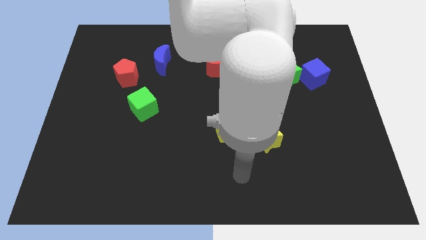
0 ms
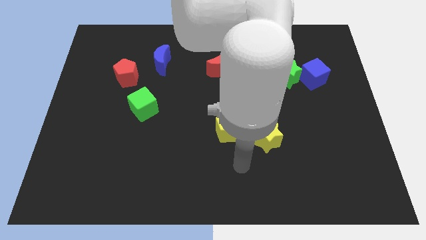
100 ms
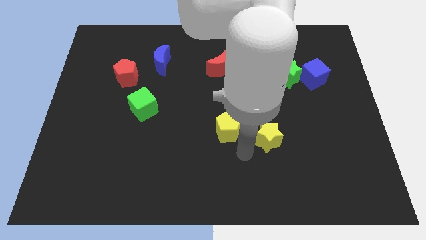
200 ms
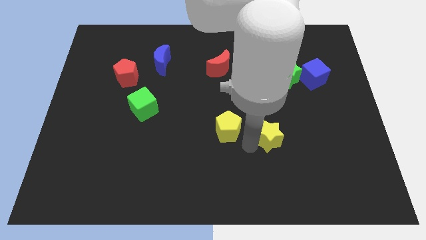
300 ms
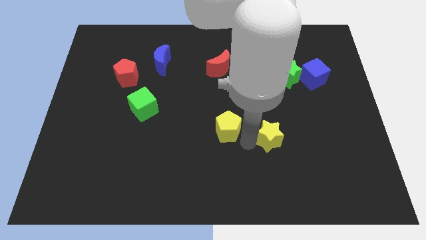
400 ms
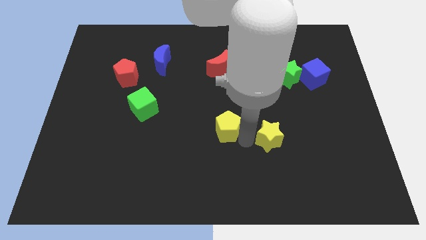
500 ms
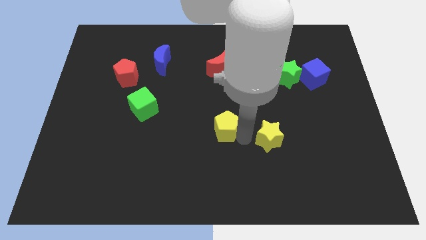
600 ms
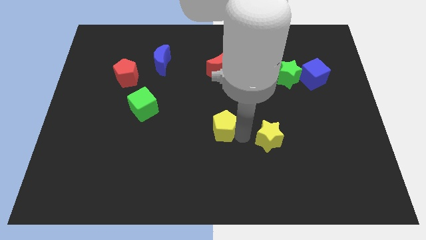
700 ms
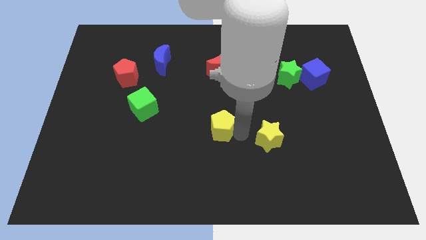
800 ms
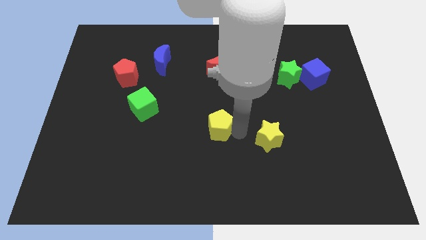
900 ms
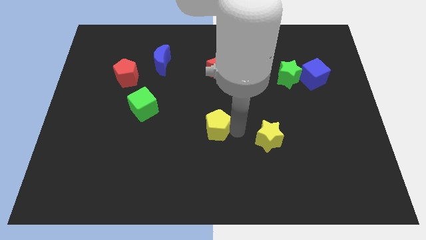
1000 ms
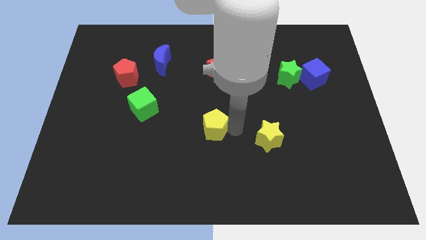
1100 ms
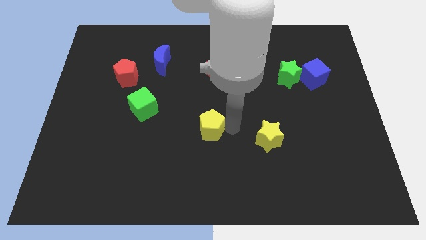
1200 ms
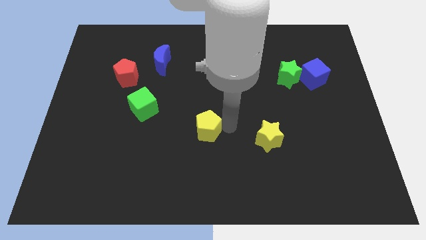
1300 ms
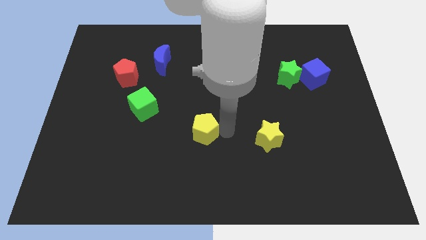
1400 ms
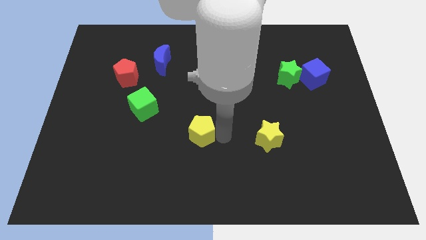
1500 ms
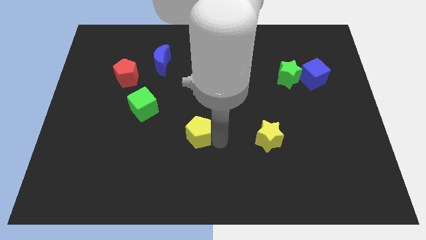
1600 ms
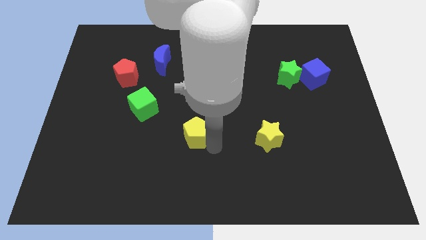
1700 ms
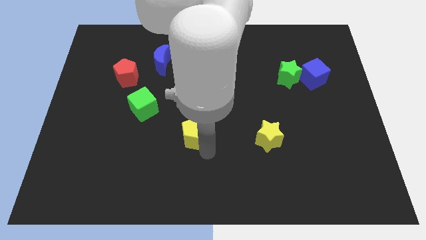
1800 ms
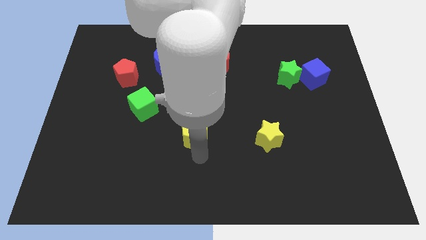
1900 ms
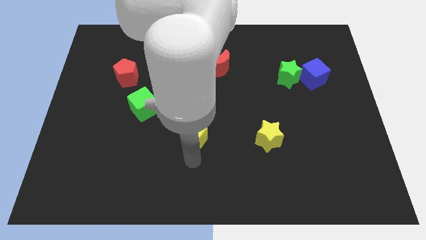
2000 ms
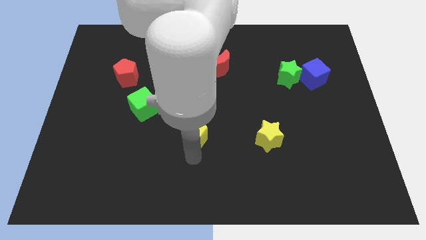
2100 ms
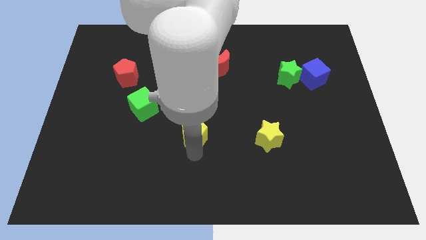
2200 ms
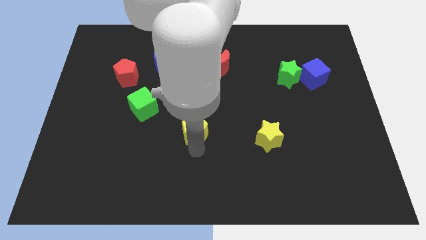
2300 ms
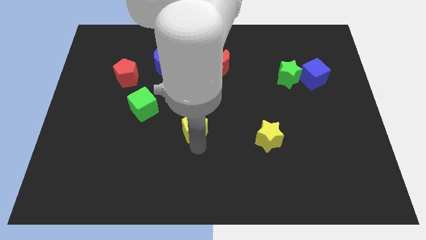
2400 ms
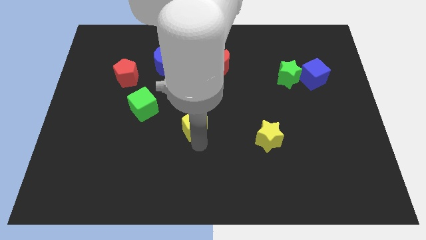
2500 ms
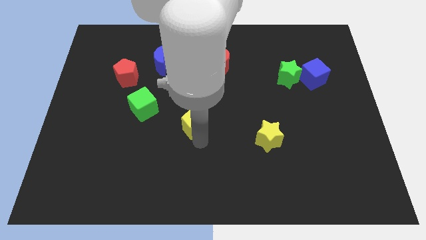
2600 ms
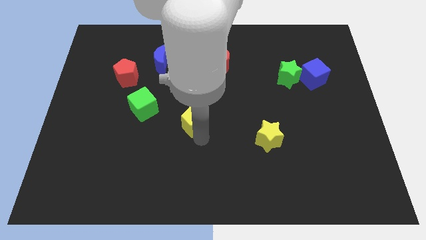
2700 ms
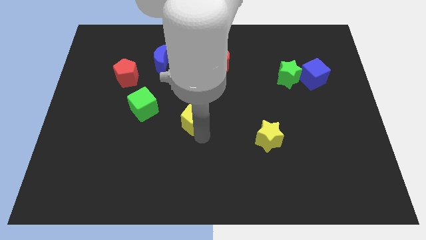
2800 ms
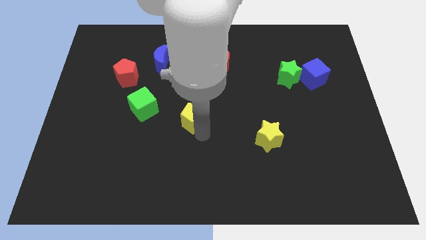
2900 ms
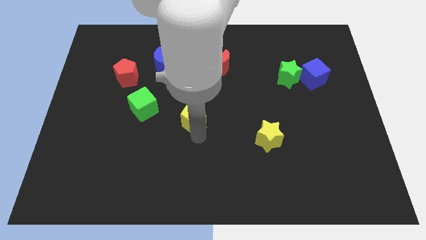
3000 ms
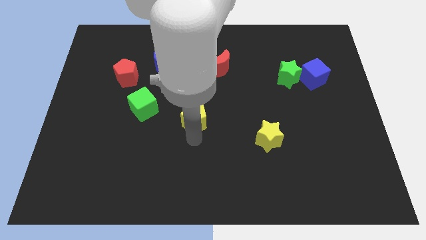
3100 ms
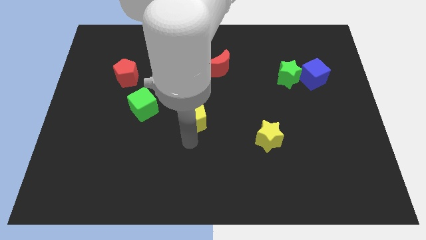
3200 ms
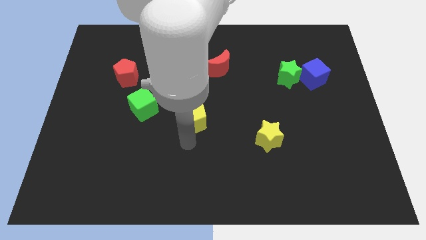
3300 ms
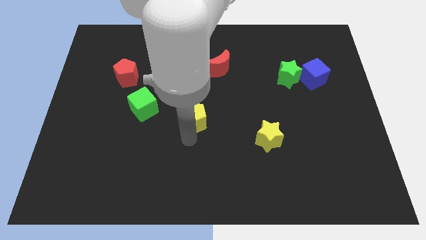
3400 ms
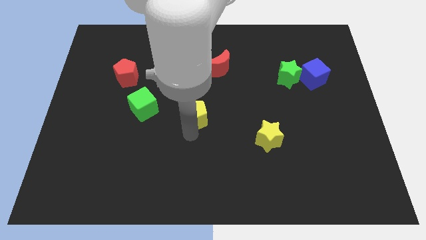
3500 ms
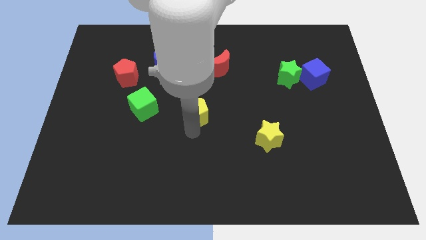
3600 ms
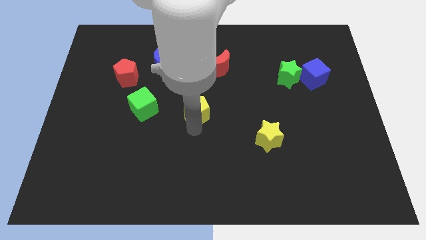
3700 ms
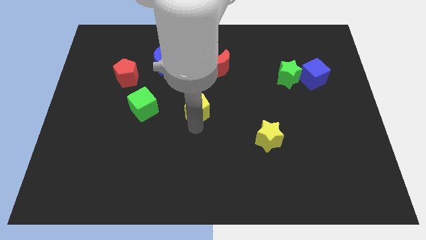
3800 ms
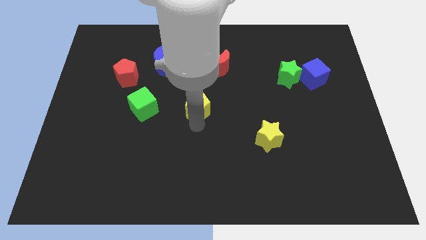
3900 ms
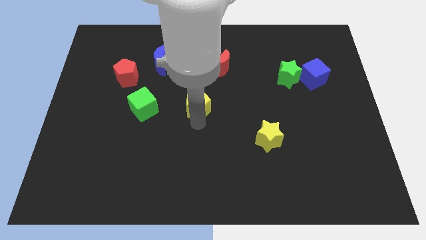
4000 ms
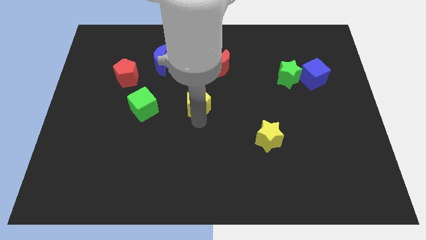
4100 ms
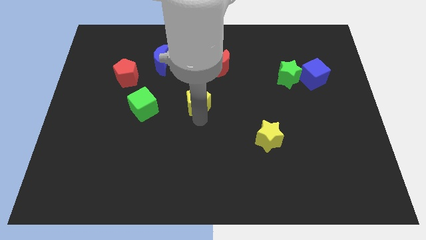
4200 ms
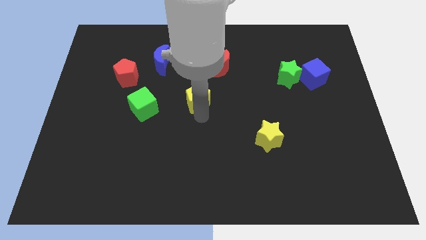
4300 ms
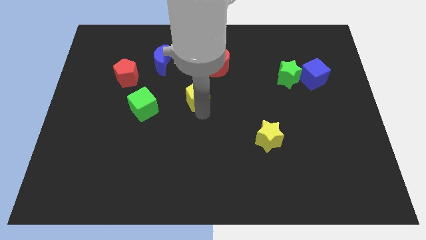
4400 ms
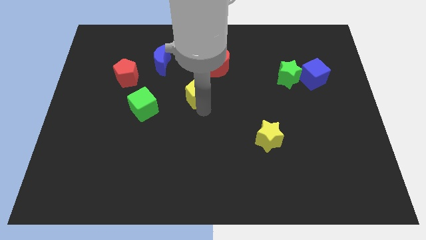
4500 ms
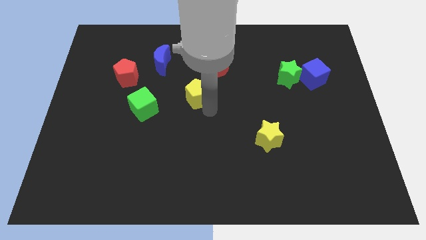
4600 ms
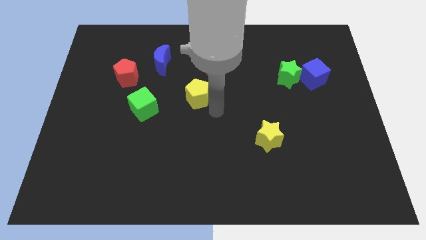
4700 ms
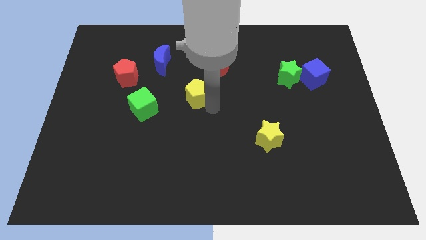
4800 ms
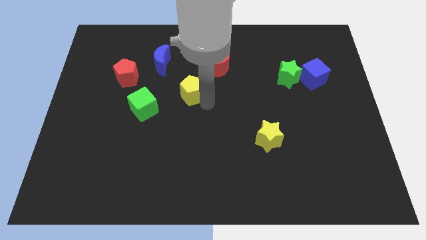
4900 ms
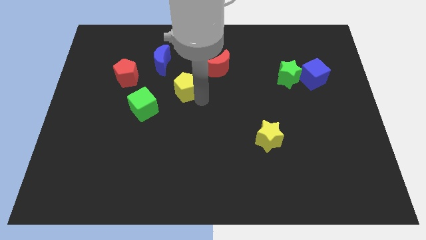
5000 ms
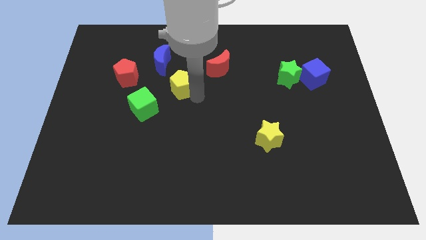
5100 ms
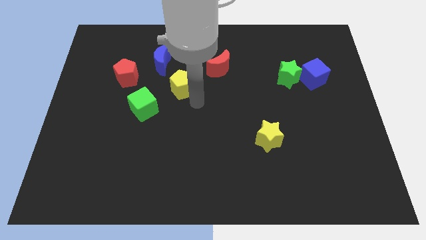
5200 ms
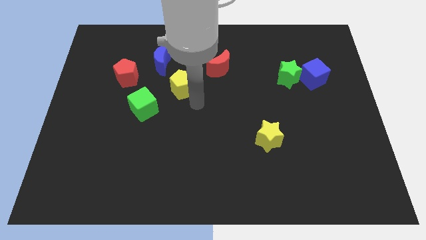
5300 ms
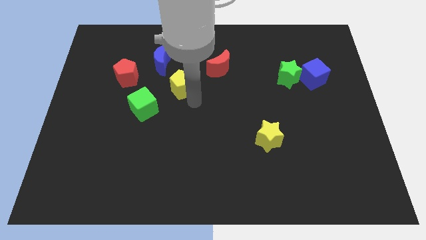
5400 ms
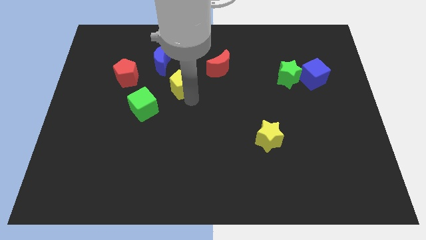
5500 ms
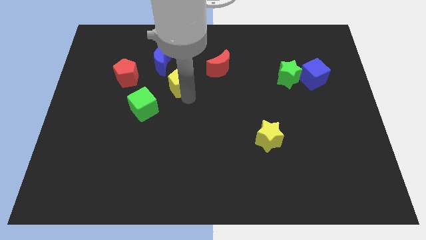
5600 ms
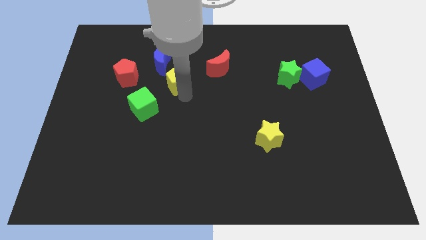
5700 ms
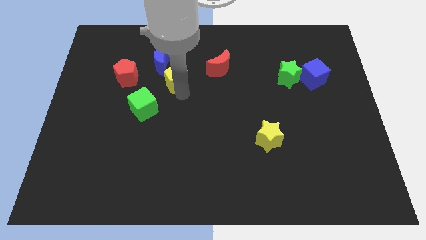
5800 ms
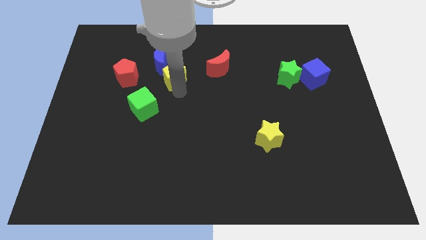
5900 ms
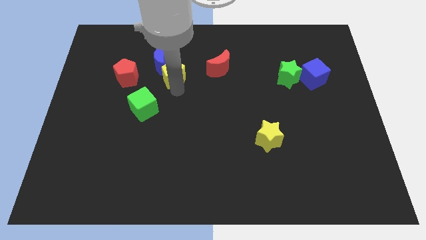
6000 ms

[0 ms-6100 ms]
move the yellow pentagon next to the blue moon

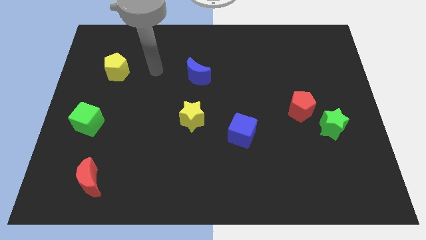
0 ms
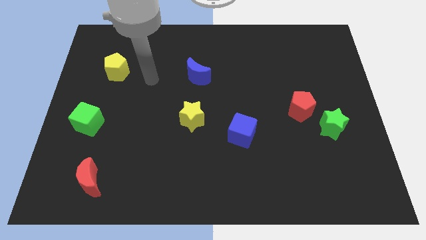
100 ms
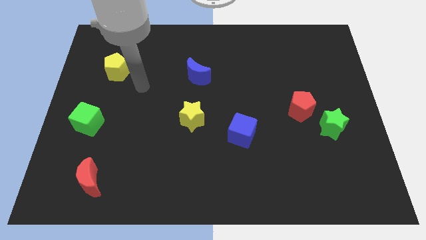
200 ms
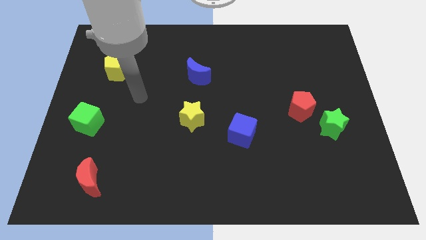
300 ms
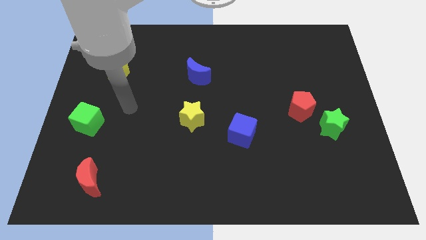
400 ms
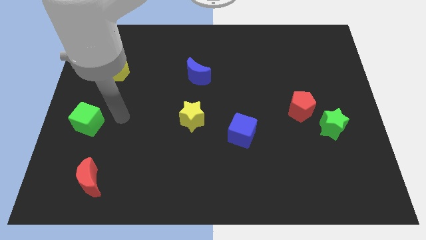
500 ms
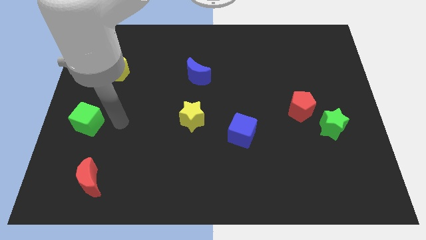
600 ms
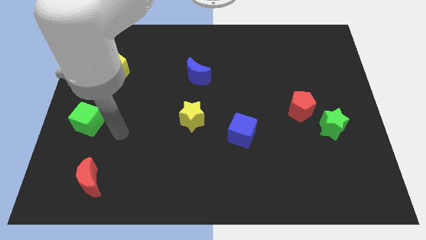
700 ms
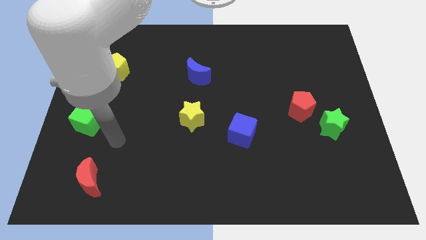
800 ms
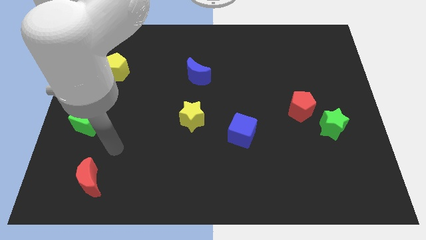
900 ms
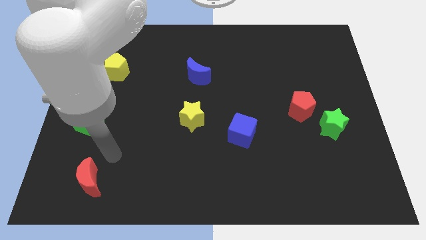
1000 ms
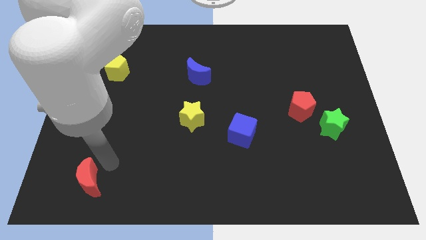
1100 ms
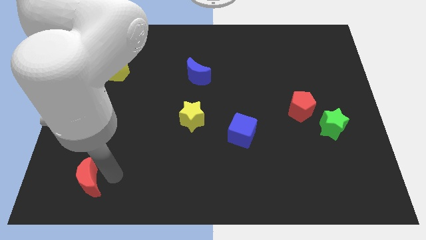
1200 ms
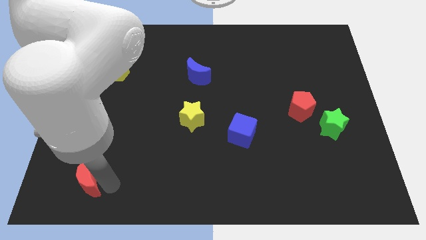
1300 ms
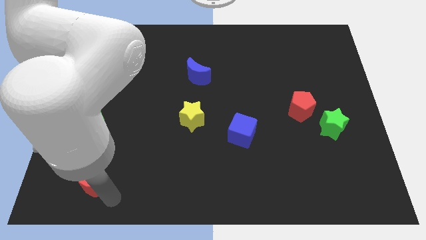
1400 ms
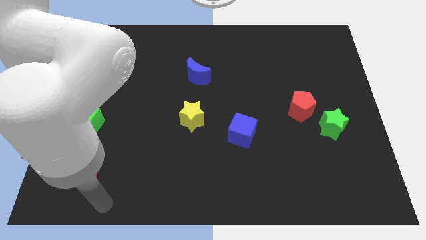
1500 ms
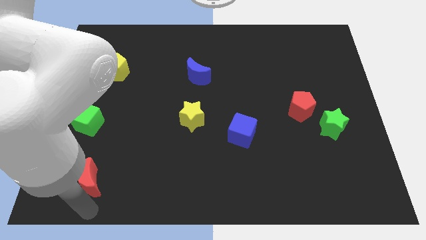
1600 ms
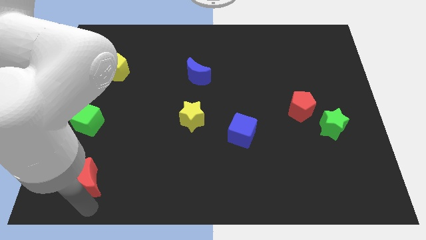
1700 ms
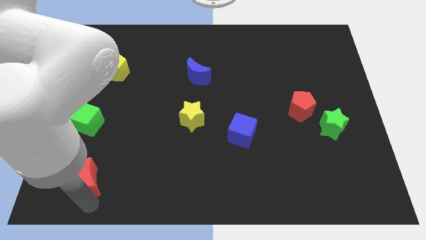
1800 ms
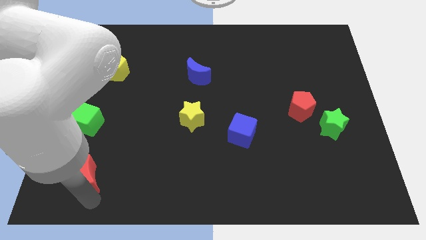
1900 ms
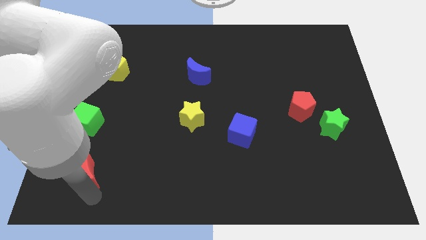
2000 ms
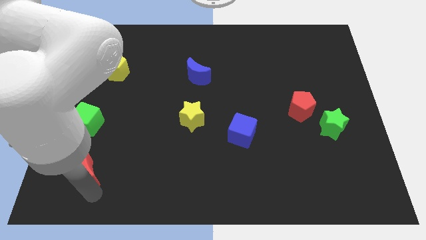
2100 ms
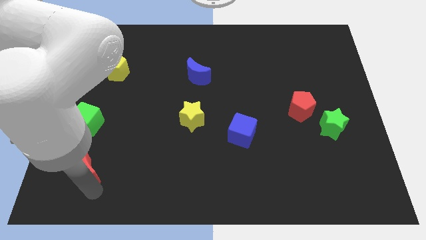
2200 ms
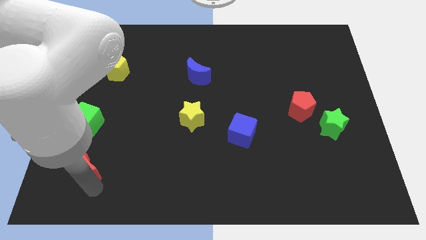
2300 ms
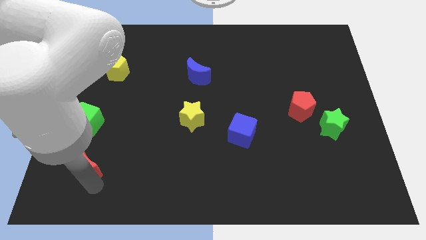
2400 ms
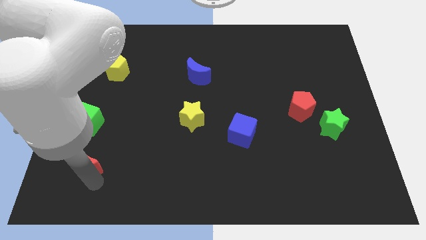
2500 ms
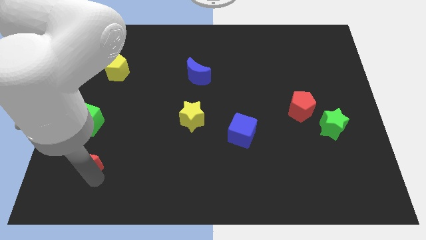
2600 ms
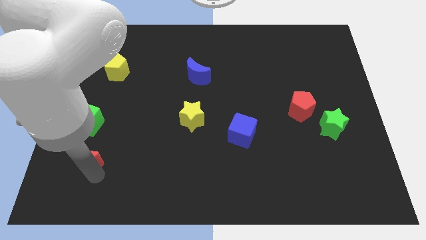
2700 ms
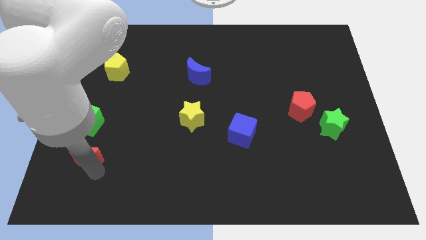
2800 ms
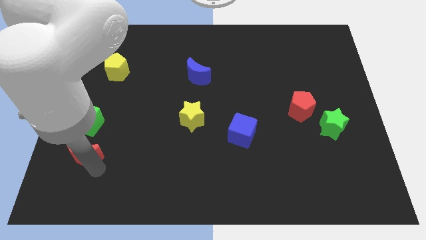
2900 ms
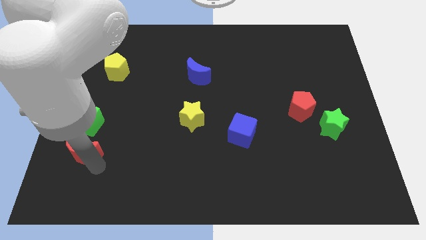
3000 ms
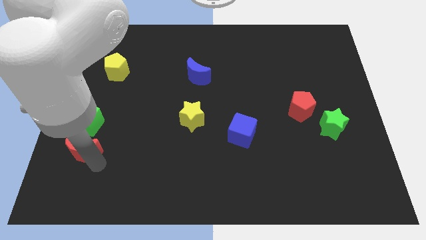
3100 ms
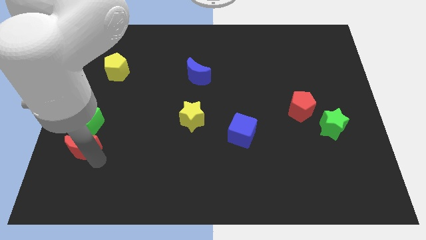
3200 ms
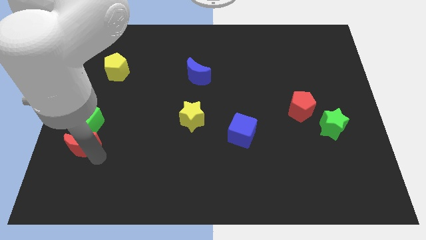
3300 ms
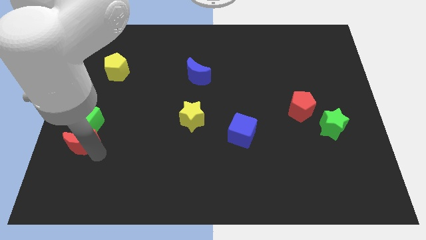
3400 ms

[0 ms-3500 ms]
push the red moon towards the green cube
